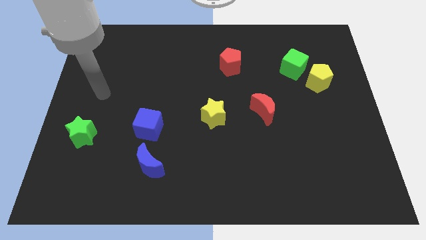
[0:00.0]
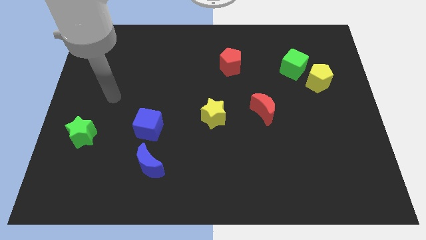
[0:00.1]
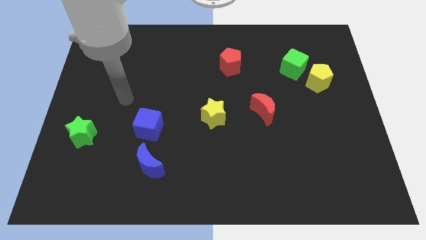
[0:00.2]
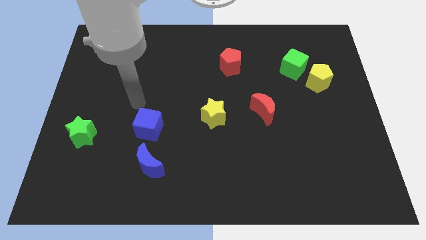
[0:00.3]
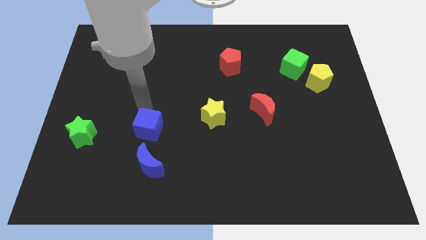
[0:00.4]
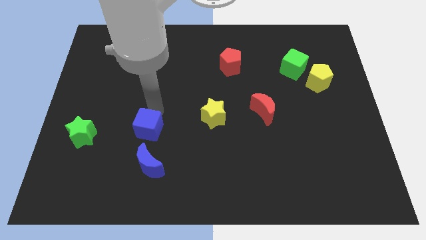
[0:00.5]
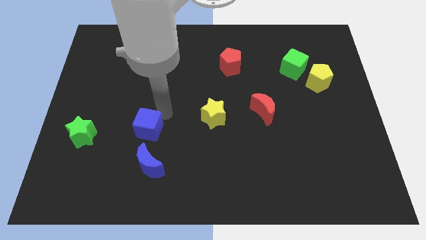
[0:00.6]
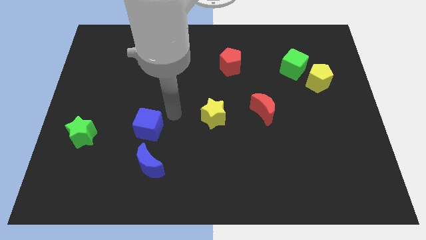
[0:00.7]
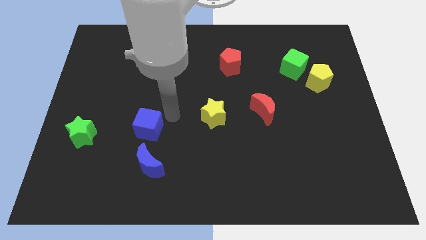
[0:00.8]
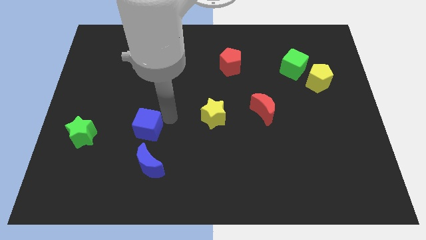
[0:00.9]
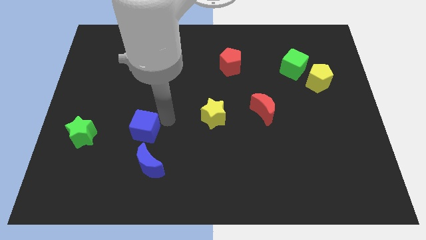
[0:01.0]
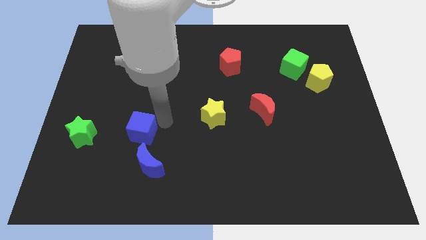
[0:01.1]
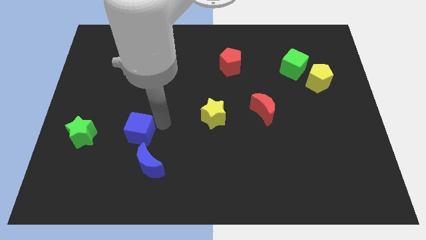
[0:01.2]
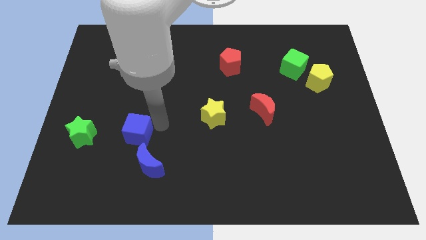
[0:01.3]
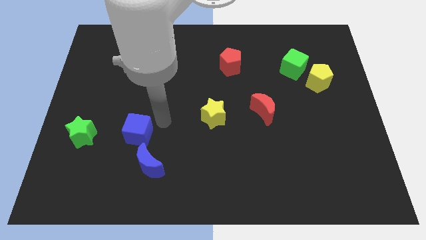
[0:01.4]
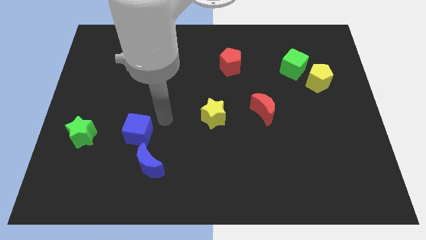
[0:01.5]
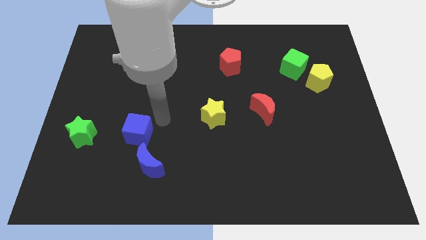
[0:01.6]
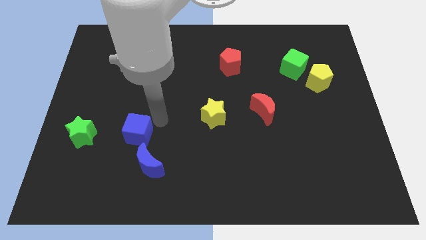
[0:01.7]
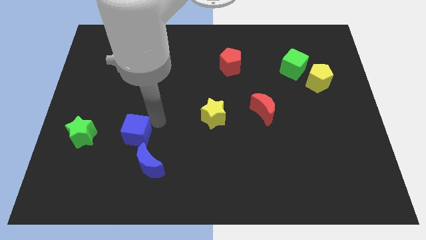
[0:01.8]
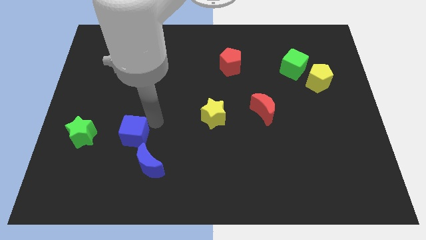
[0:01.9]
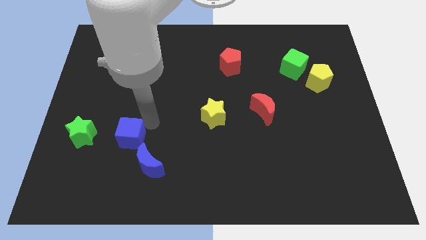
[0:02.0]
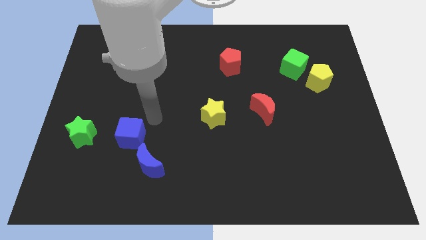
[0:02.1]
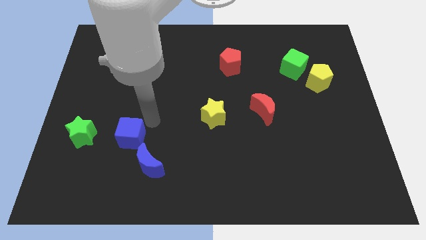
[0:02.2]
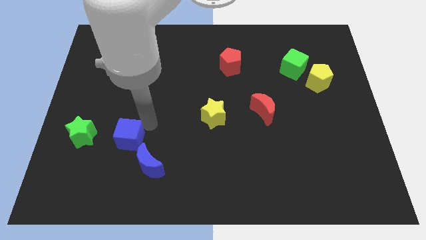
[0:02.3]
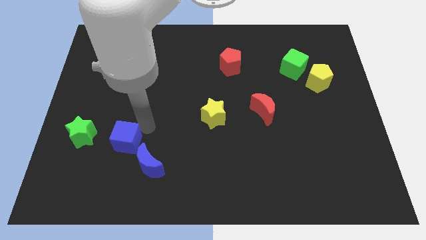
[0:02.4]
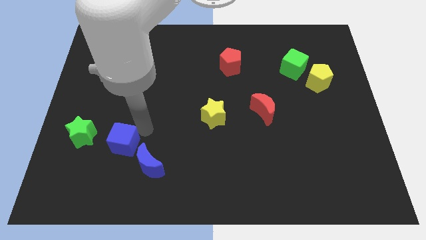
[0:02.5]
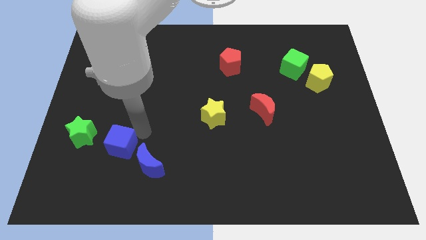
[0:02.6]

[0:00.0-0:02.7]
slide the blue cube slightly down and to the left diagonally

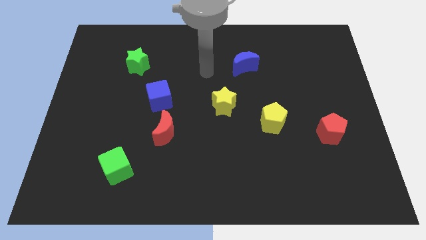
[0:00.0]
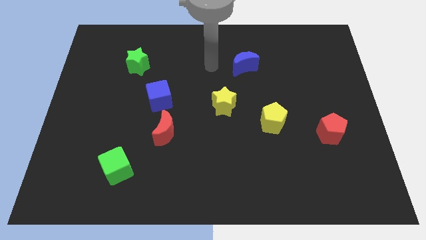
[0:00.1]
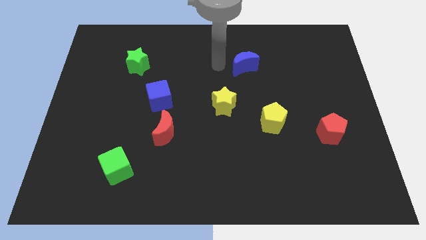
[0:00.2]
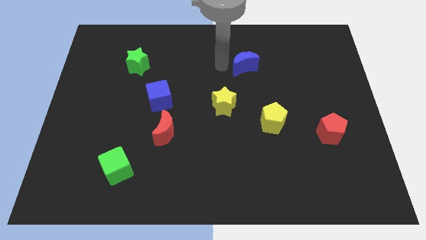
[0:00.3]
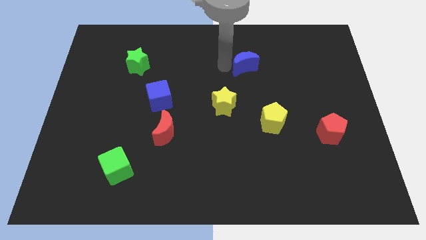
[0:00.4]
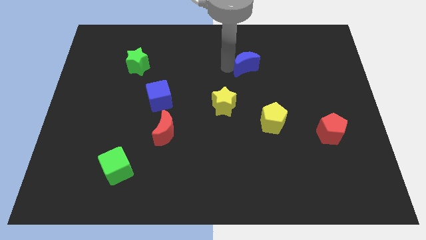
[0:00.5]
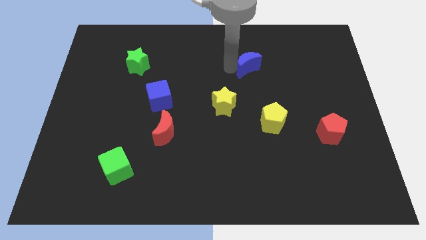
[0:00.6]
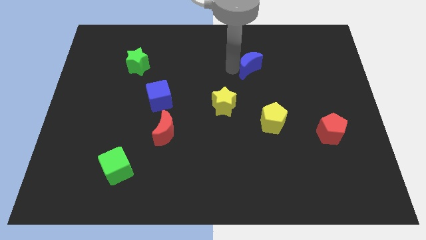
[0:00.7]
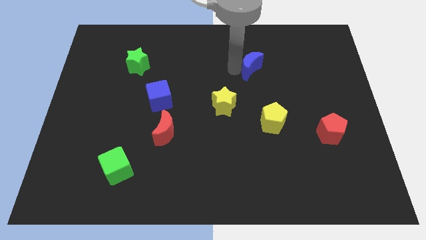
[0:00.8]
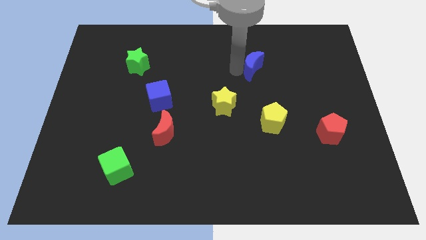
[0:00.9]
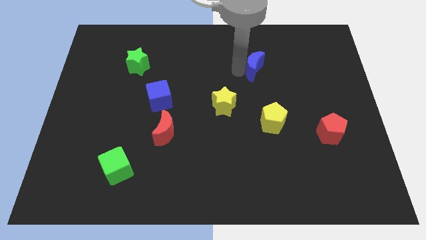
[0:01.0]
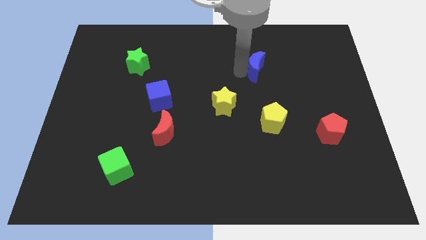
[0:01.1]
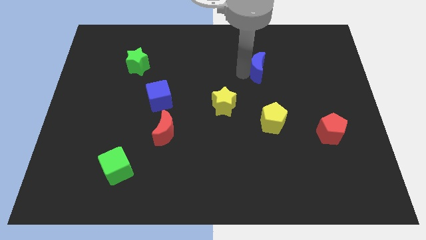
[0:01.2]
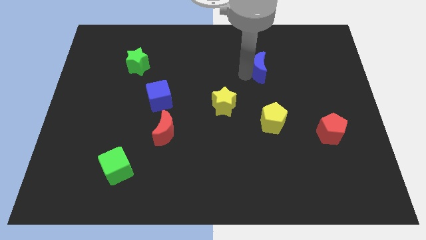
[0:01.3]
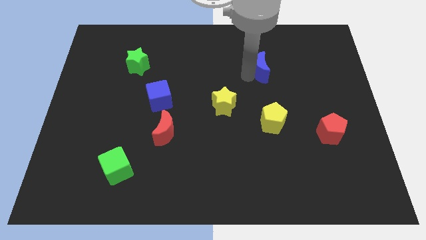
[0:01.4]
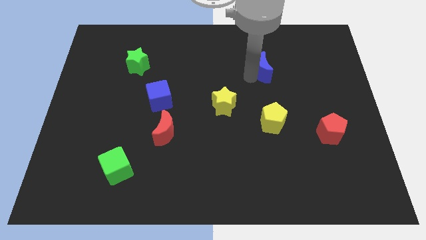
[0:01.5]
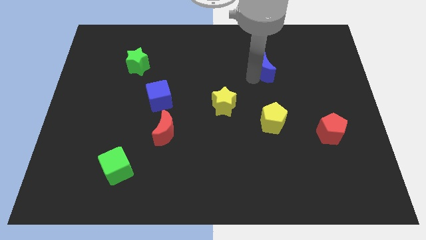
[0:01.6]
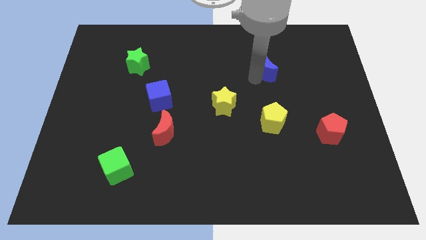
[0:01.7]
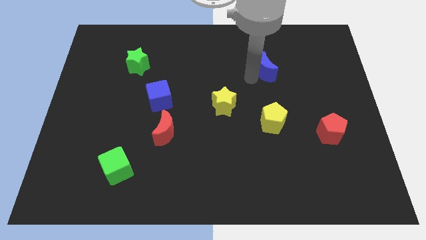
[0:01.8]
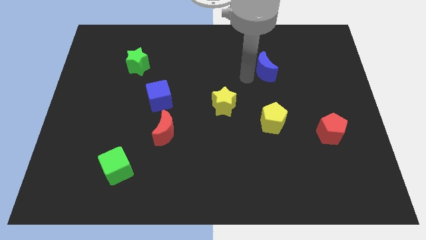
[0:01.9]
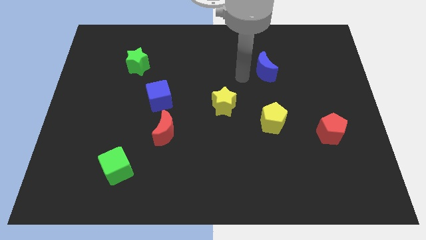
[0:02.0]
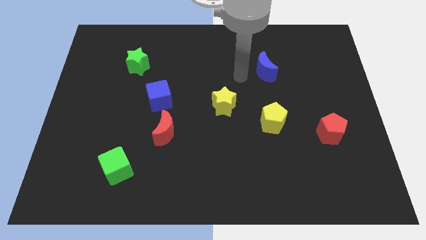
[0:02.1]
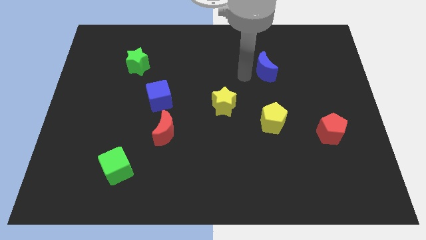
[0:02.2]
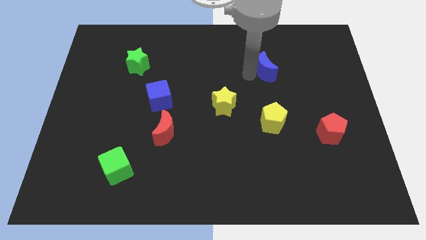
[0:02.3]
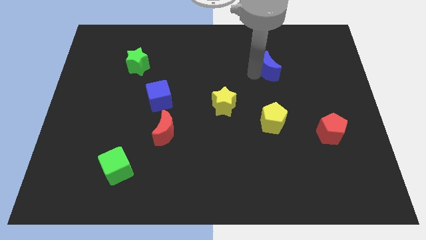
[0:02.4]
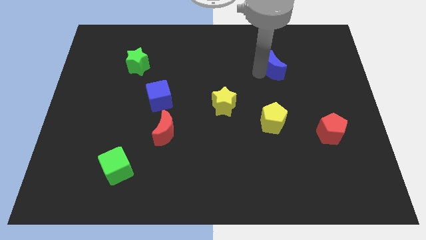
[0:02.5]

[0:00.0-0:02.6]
move the blue moon a little bit to the right

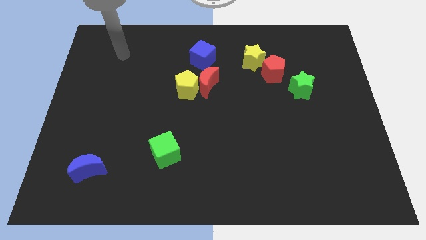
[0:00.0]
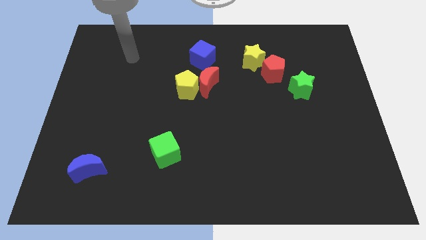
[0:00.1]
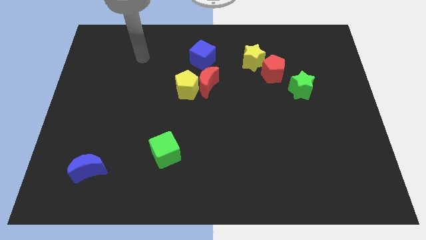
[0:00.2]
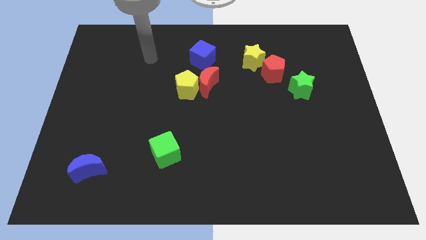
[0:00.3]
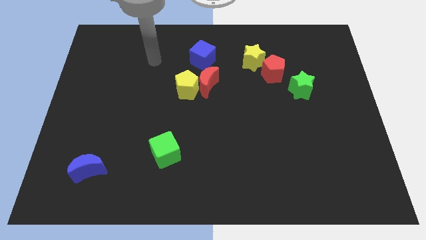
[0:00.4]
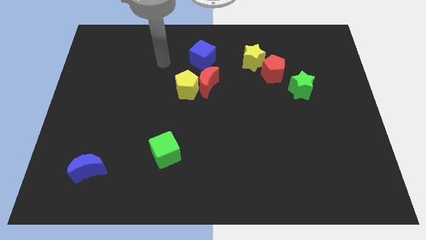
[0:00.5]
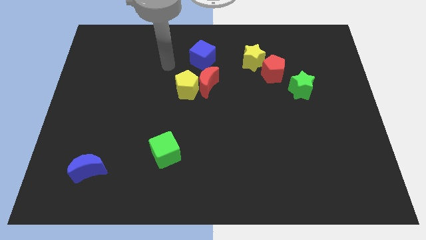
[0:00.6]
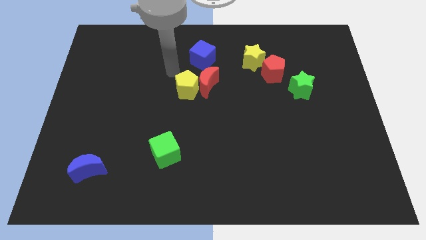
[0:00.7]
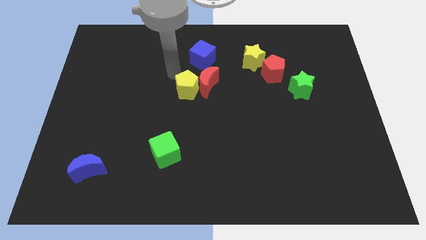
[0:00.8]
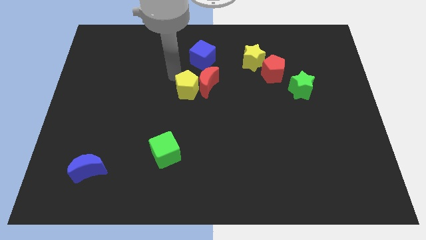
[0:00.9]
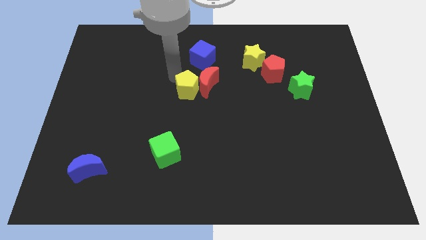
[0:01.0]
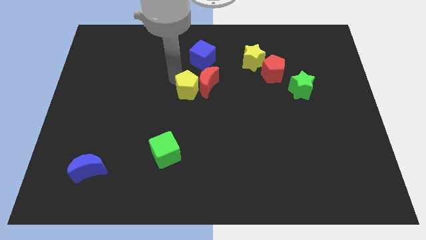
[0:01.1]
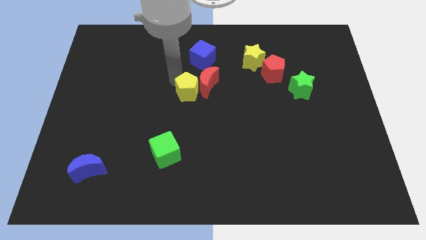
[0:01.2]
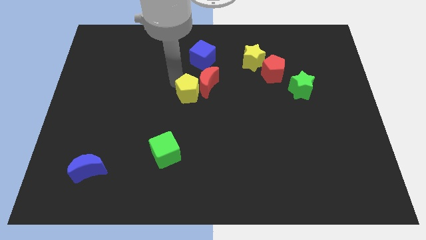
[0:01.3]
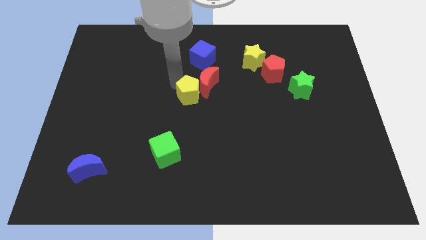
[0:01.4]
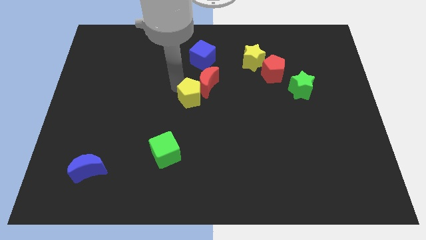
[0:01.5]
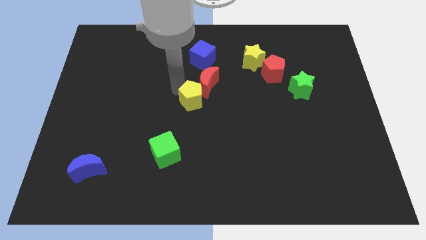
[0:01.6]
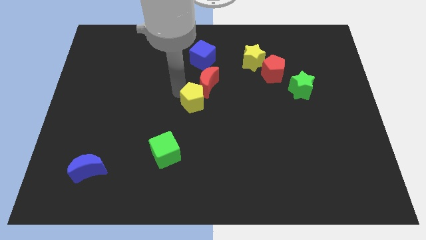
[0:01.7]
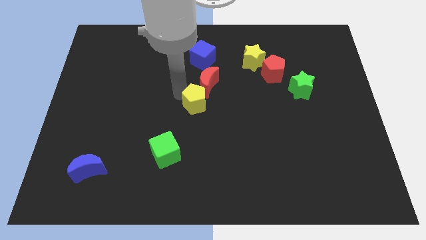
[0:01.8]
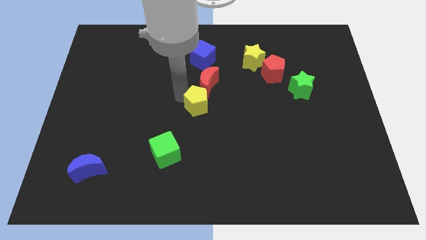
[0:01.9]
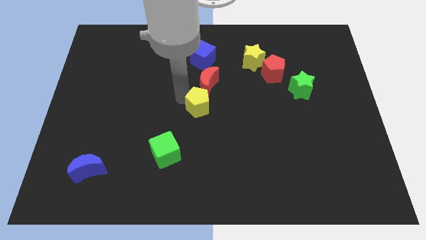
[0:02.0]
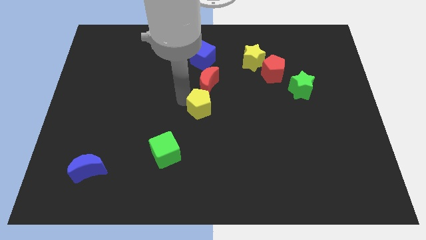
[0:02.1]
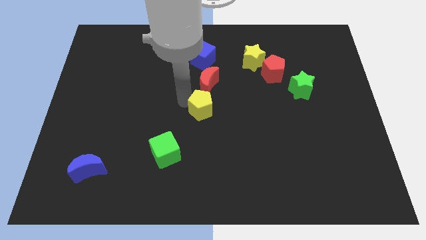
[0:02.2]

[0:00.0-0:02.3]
slide the yellow pentagon downwards and to the right diagonally somewhat

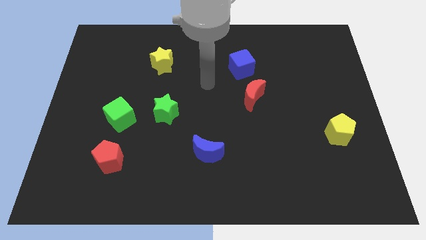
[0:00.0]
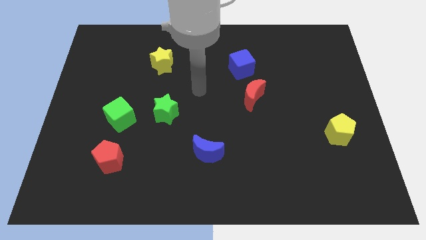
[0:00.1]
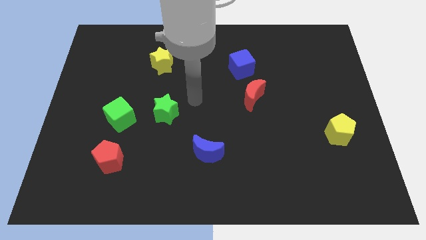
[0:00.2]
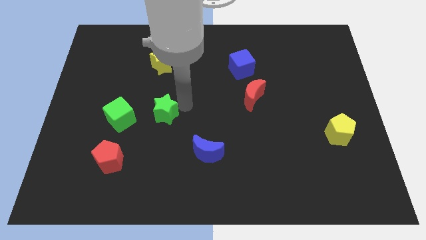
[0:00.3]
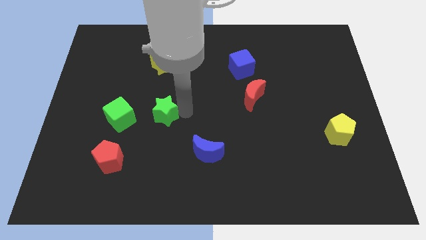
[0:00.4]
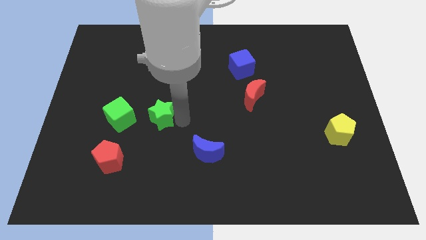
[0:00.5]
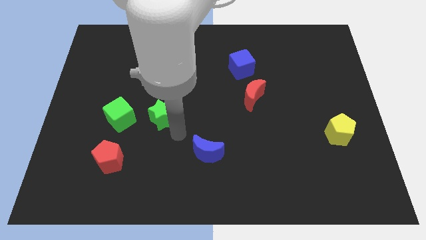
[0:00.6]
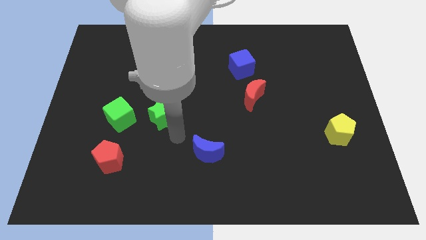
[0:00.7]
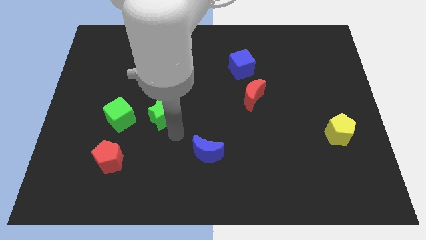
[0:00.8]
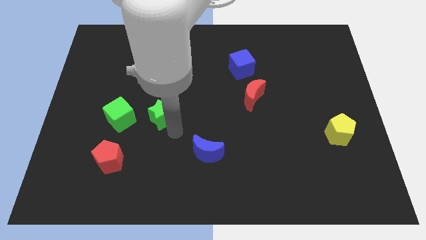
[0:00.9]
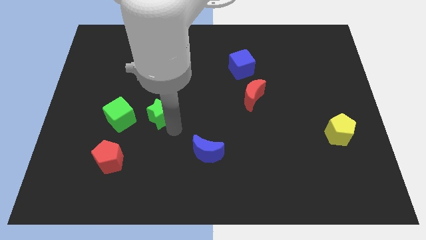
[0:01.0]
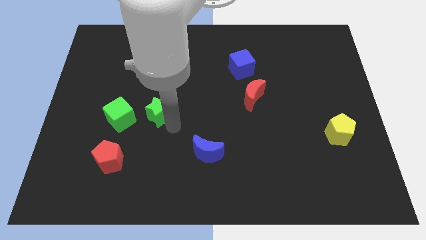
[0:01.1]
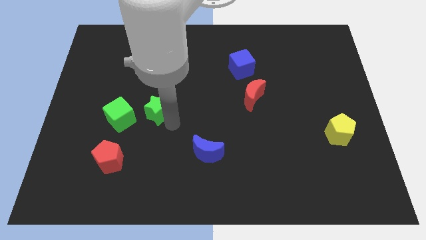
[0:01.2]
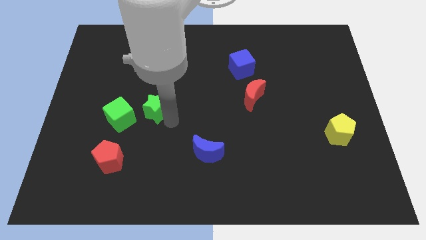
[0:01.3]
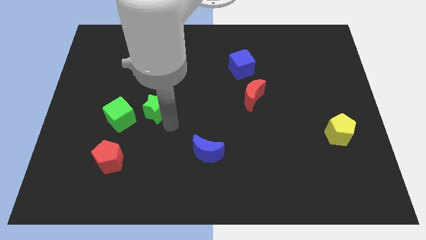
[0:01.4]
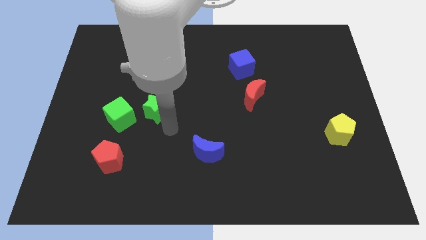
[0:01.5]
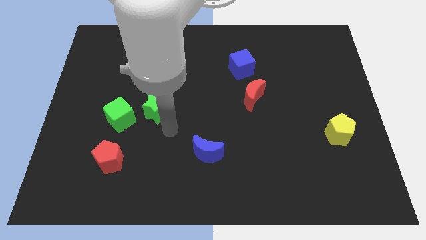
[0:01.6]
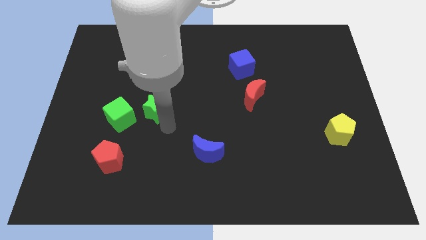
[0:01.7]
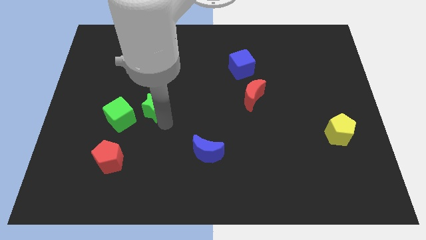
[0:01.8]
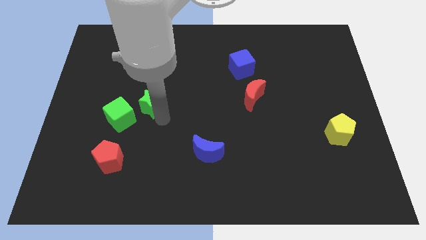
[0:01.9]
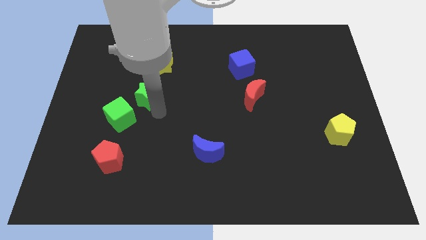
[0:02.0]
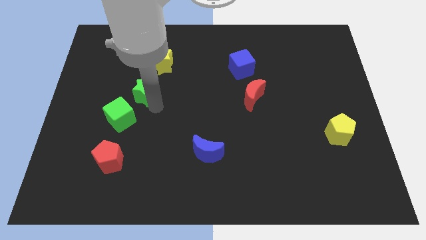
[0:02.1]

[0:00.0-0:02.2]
move the green star somewhat upwards and then to the left
